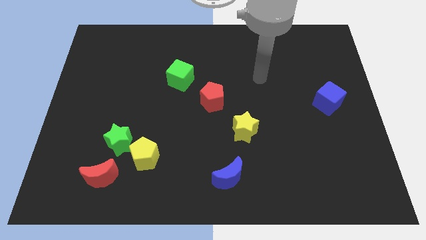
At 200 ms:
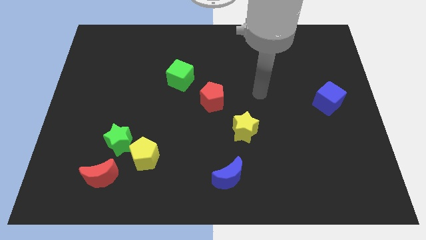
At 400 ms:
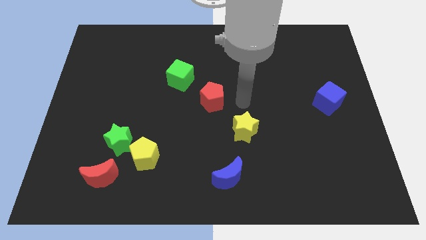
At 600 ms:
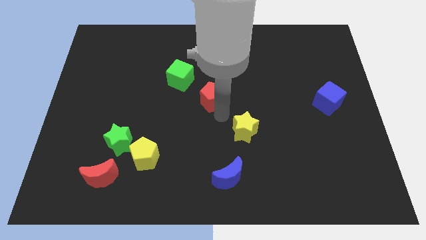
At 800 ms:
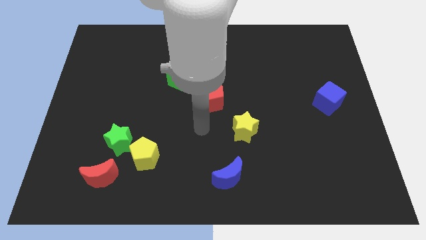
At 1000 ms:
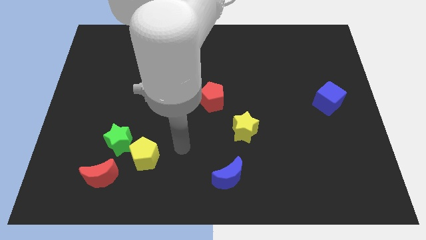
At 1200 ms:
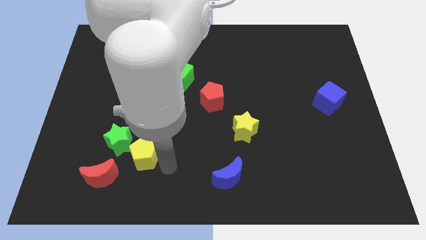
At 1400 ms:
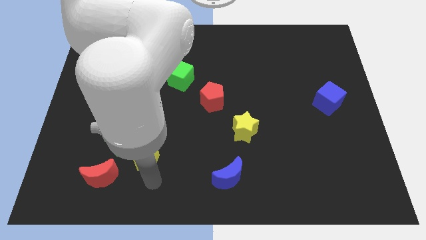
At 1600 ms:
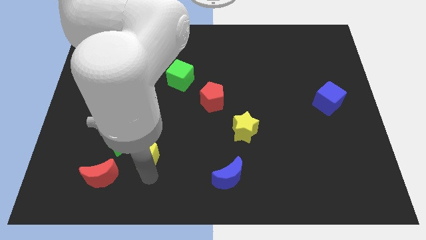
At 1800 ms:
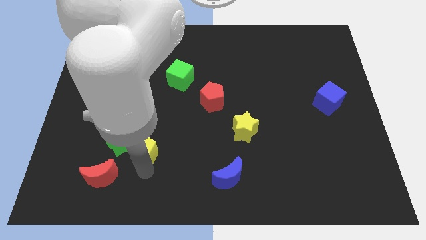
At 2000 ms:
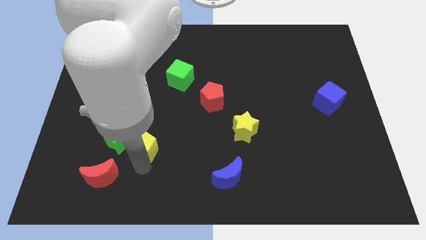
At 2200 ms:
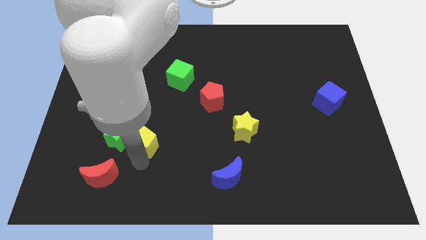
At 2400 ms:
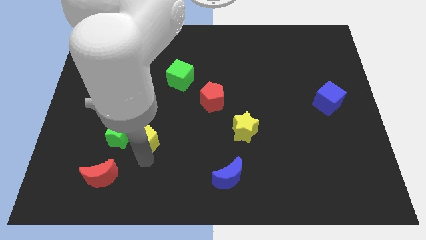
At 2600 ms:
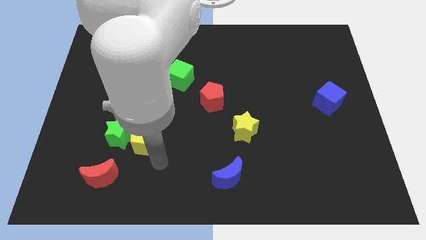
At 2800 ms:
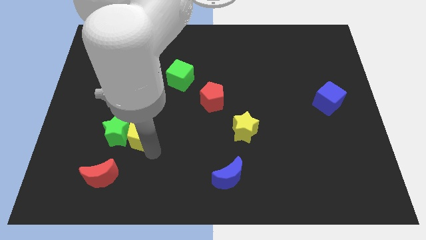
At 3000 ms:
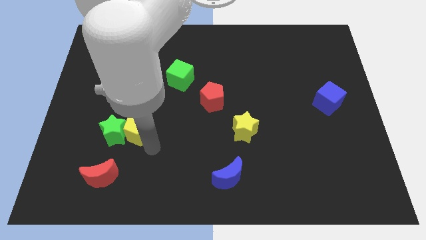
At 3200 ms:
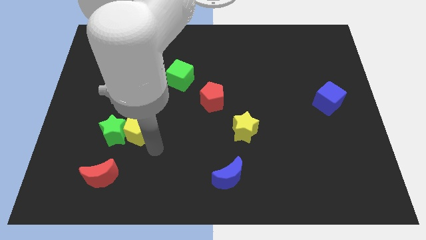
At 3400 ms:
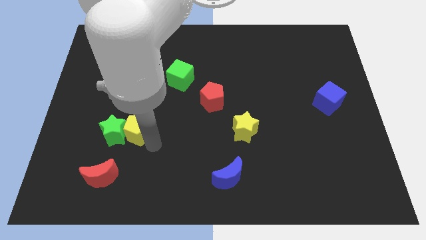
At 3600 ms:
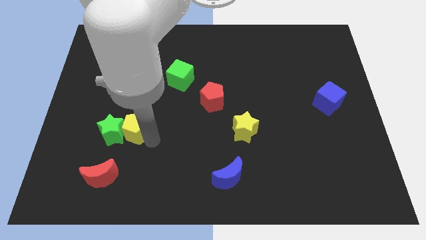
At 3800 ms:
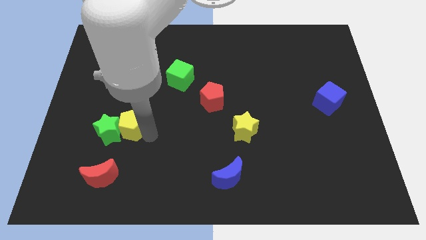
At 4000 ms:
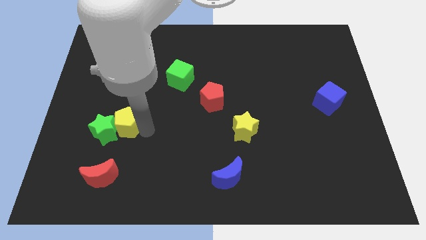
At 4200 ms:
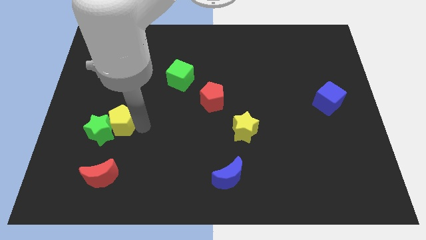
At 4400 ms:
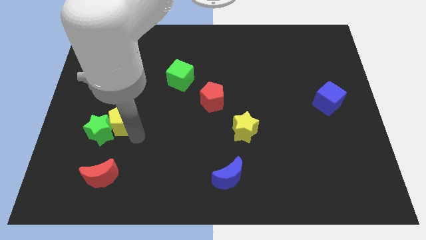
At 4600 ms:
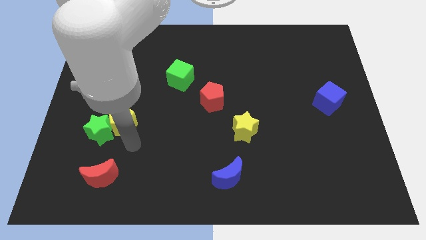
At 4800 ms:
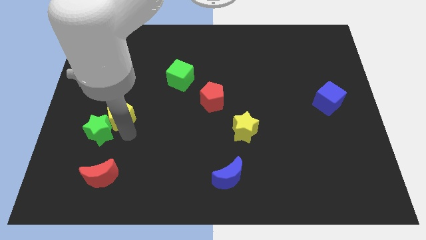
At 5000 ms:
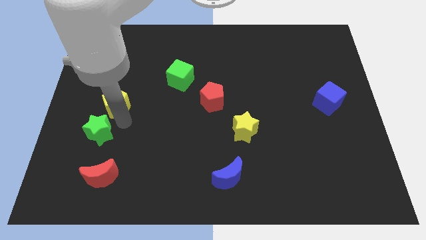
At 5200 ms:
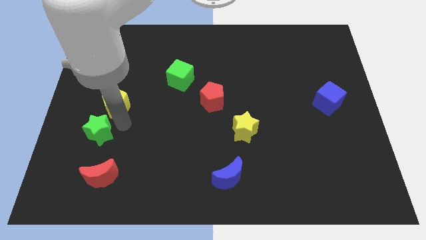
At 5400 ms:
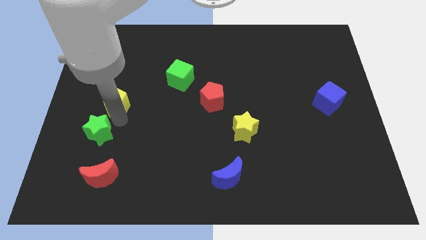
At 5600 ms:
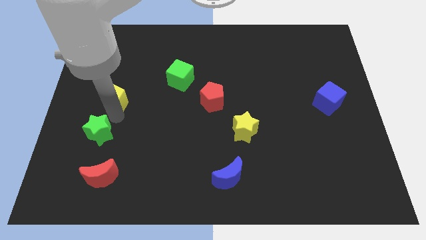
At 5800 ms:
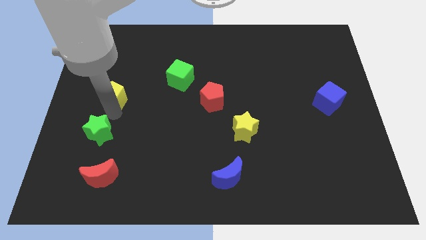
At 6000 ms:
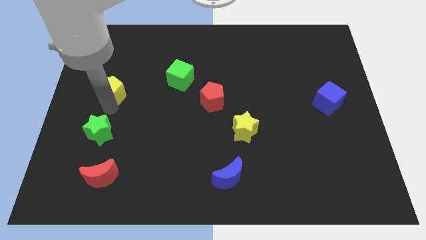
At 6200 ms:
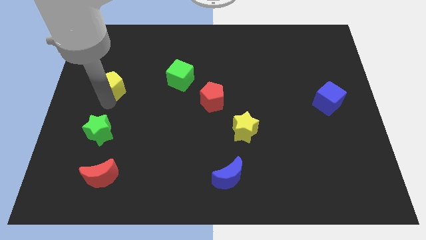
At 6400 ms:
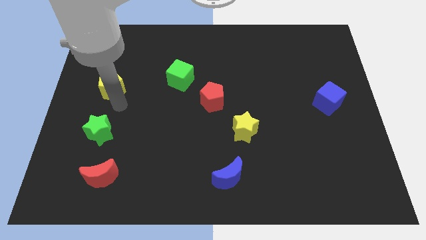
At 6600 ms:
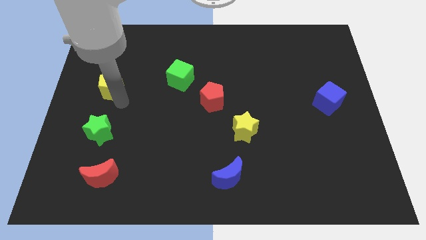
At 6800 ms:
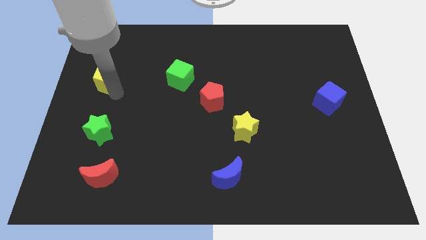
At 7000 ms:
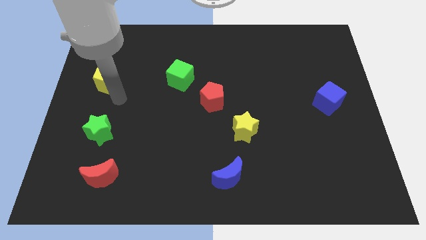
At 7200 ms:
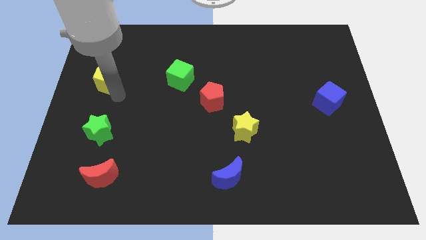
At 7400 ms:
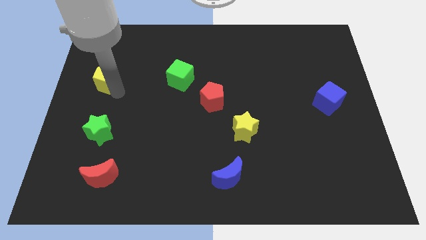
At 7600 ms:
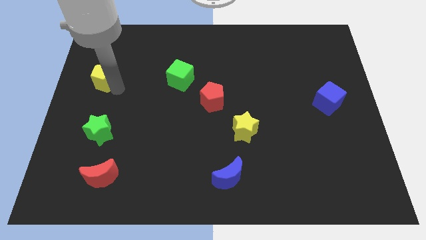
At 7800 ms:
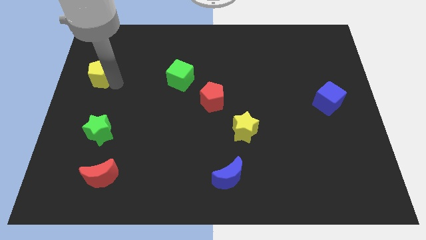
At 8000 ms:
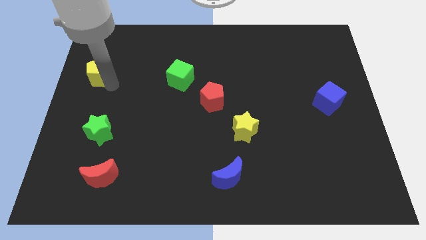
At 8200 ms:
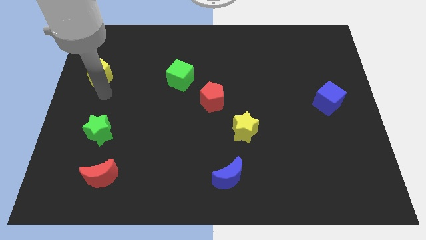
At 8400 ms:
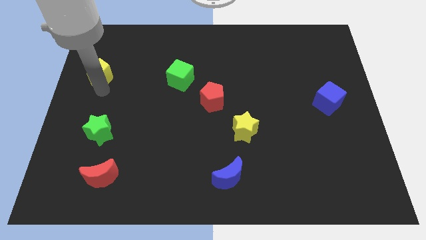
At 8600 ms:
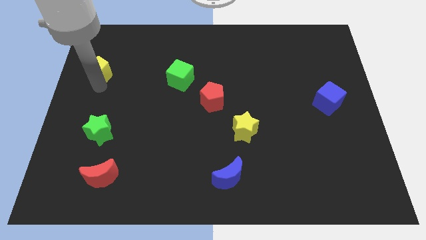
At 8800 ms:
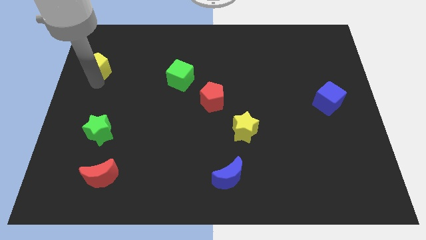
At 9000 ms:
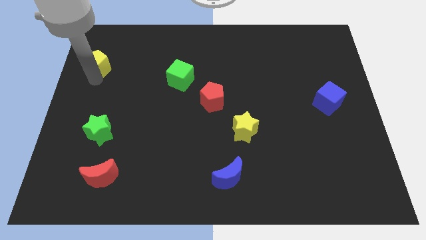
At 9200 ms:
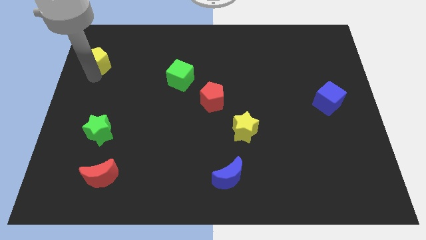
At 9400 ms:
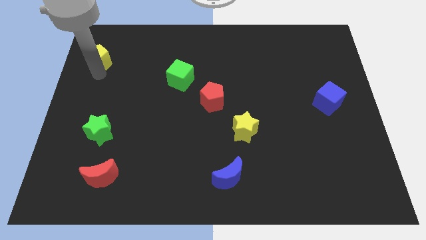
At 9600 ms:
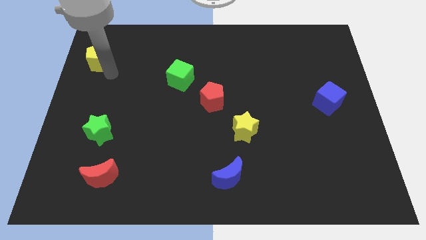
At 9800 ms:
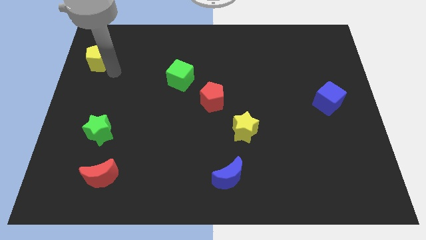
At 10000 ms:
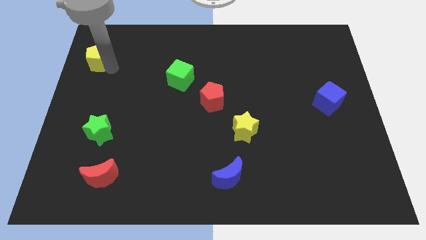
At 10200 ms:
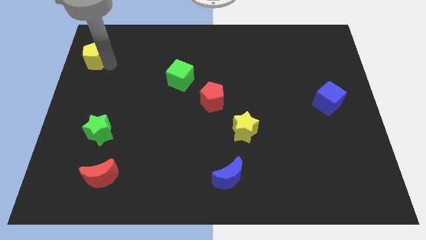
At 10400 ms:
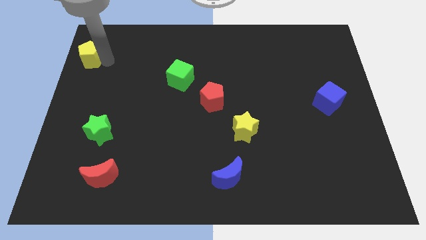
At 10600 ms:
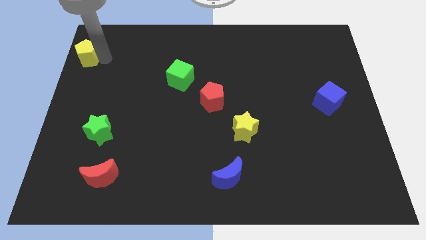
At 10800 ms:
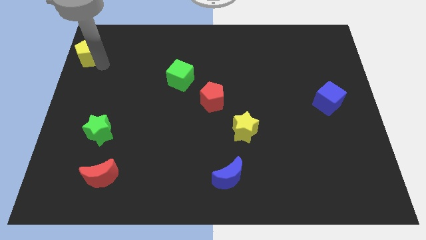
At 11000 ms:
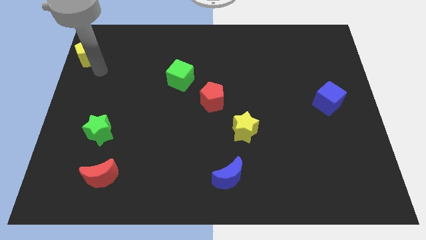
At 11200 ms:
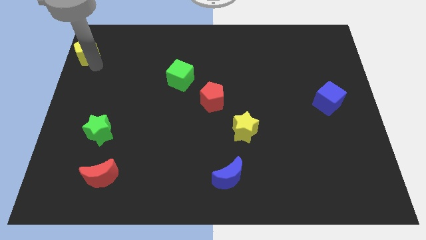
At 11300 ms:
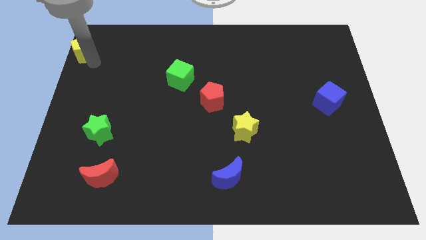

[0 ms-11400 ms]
push the yellow pentagon to the upper left corner

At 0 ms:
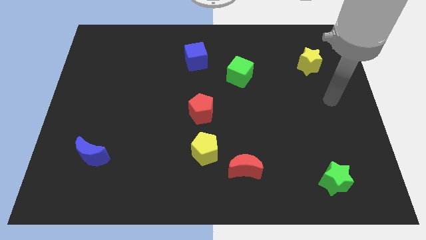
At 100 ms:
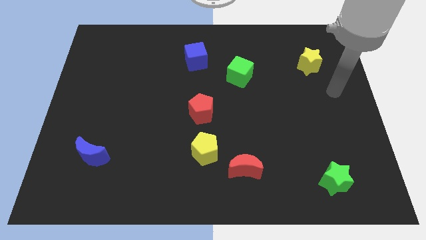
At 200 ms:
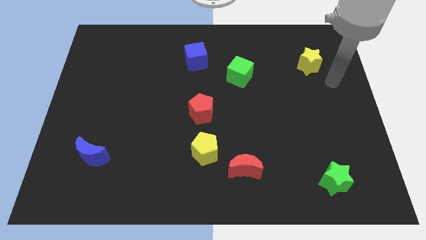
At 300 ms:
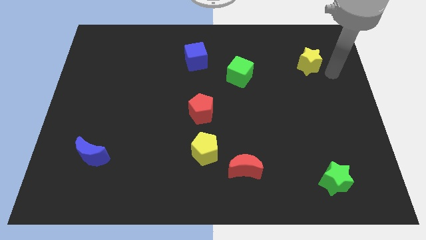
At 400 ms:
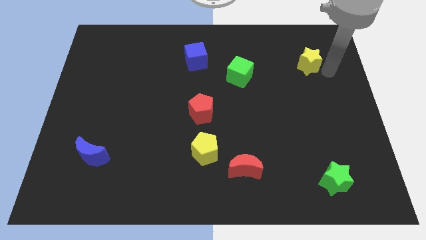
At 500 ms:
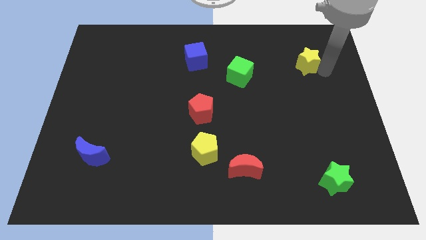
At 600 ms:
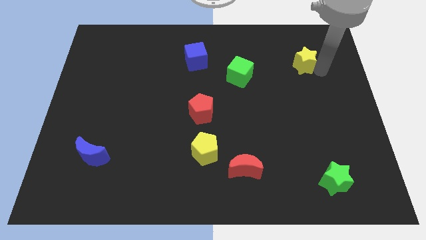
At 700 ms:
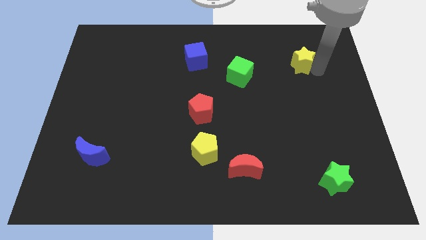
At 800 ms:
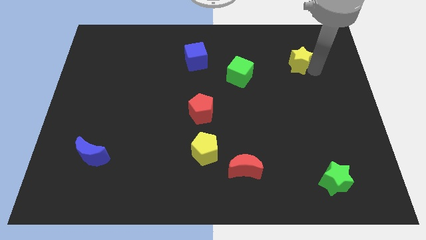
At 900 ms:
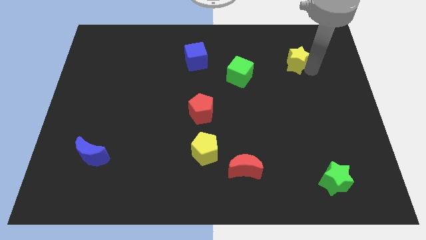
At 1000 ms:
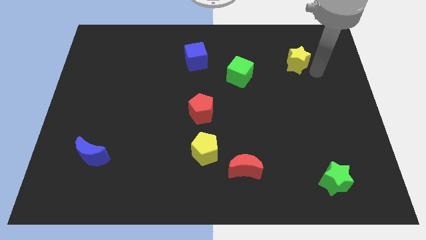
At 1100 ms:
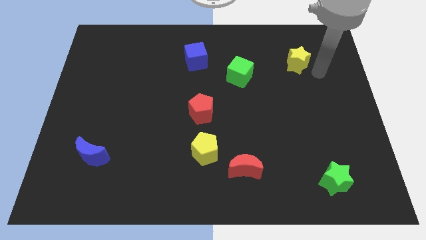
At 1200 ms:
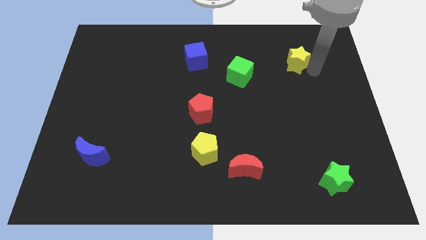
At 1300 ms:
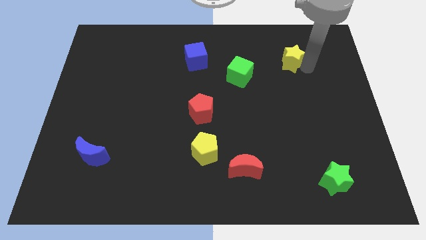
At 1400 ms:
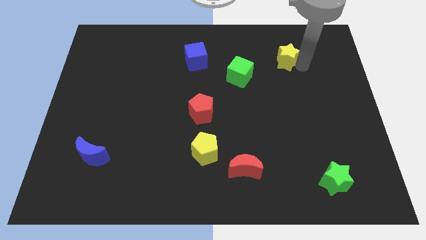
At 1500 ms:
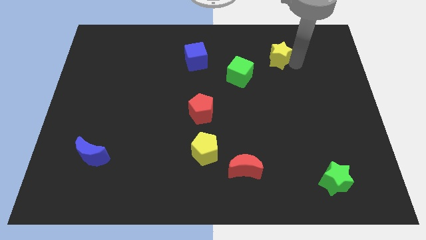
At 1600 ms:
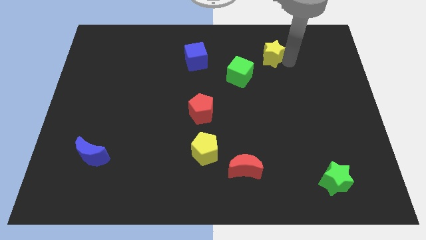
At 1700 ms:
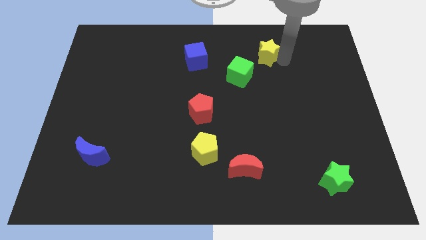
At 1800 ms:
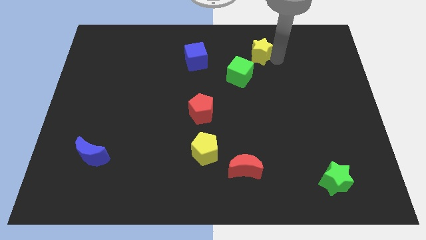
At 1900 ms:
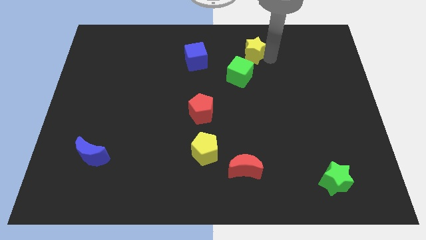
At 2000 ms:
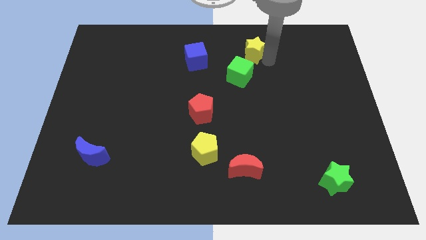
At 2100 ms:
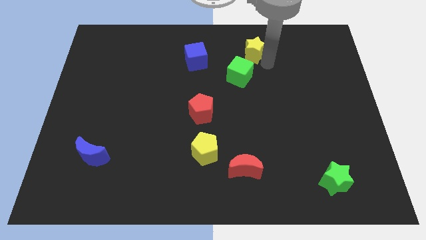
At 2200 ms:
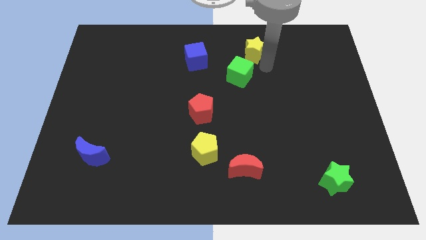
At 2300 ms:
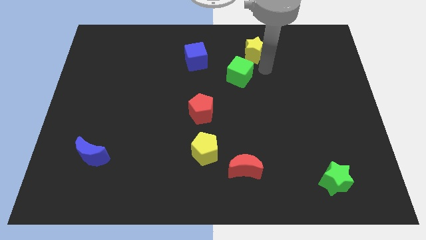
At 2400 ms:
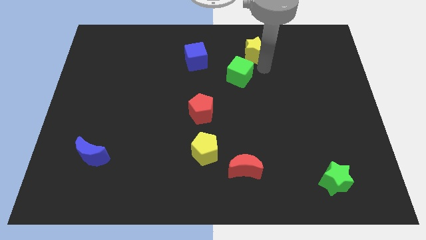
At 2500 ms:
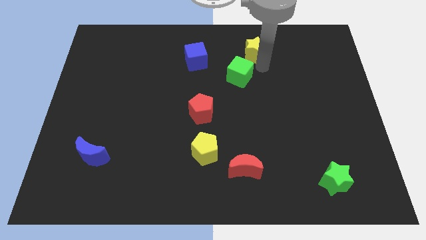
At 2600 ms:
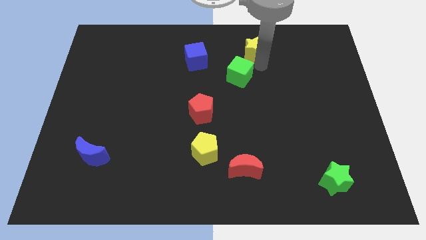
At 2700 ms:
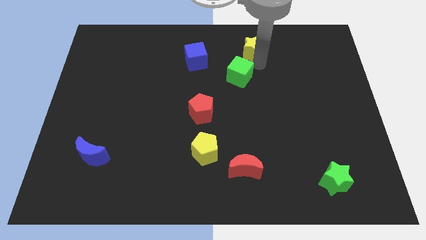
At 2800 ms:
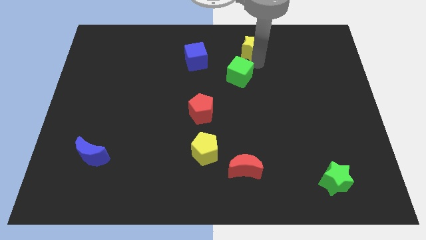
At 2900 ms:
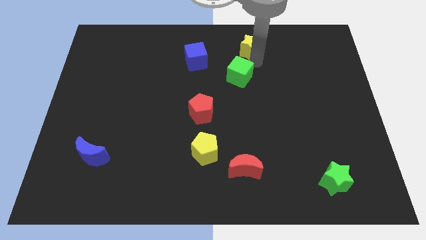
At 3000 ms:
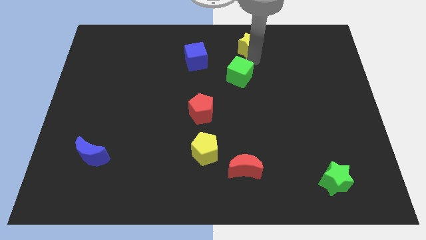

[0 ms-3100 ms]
slide the yellow star to the top
